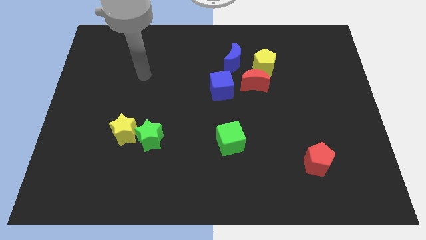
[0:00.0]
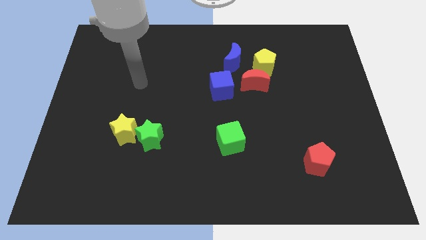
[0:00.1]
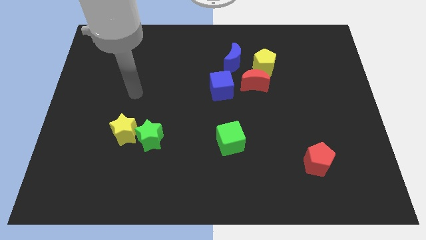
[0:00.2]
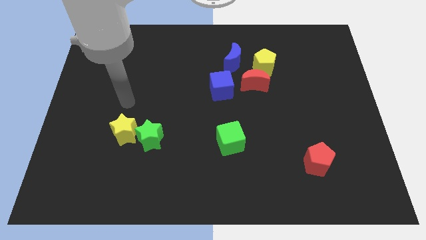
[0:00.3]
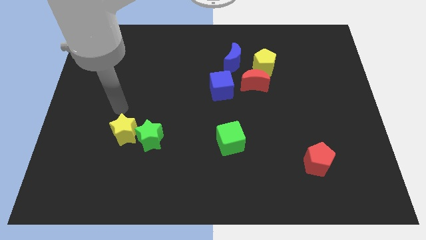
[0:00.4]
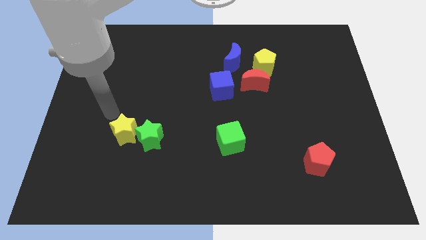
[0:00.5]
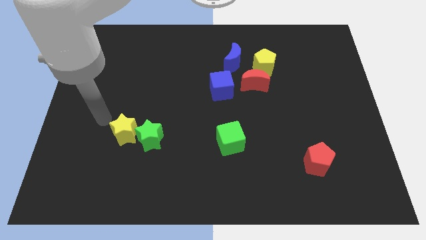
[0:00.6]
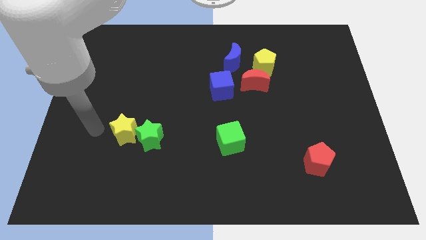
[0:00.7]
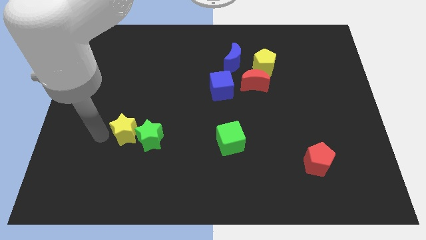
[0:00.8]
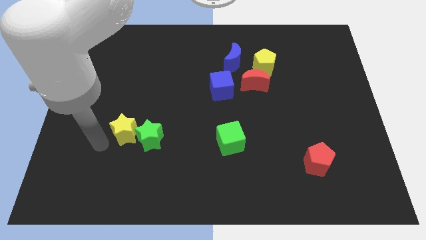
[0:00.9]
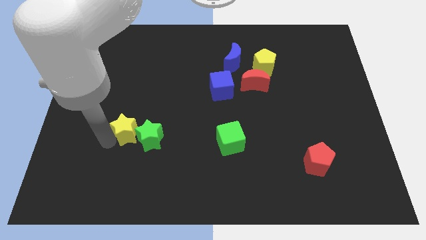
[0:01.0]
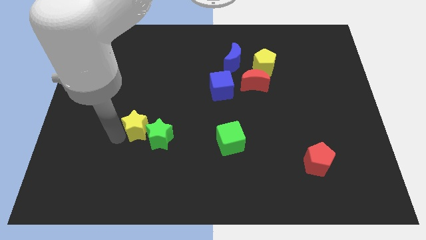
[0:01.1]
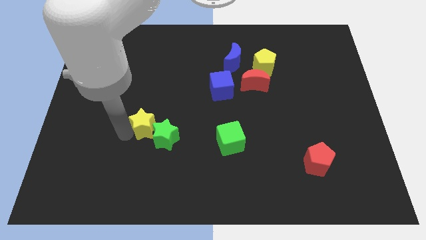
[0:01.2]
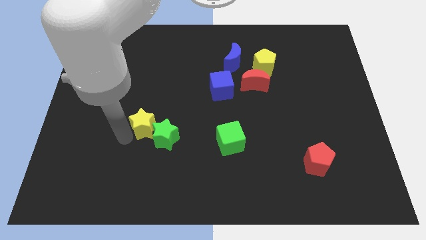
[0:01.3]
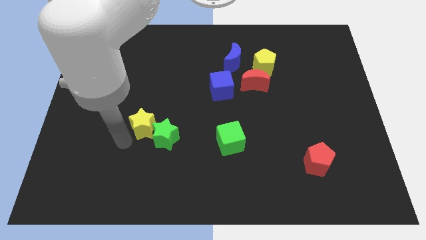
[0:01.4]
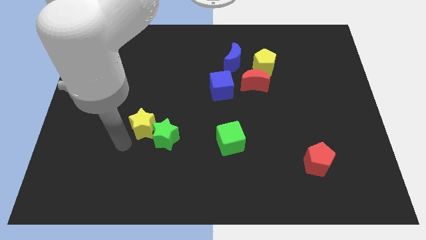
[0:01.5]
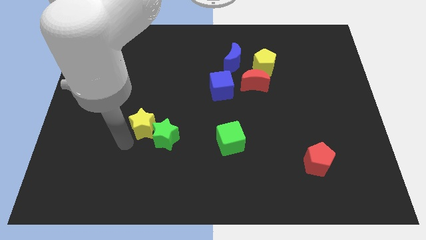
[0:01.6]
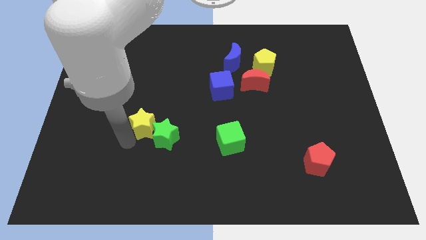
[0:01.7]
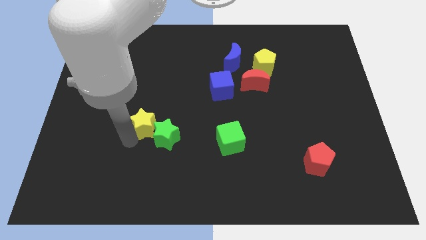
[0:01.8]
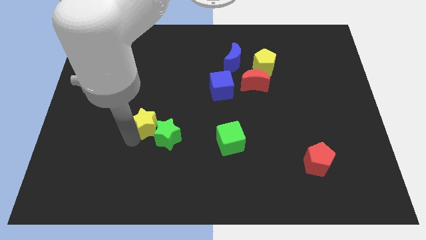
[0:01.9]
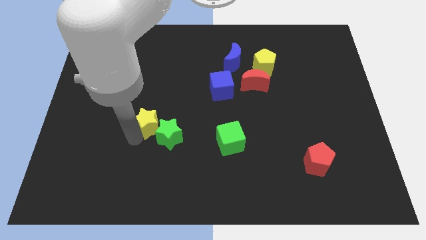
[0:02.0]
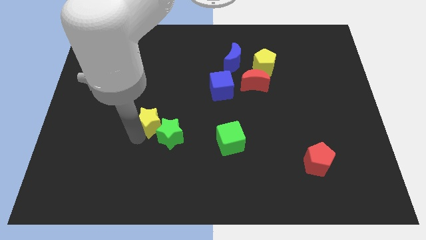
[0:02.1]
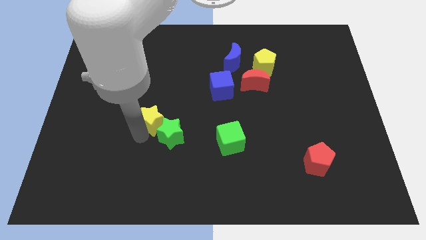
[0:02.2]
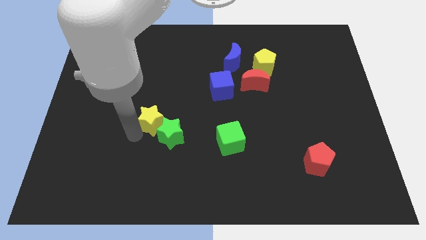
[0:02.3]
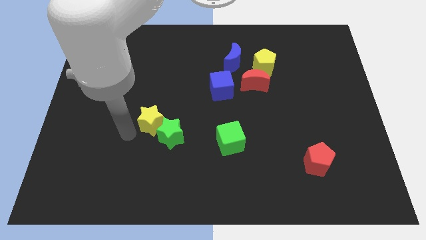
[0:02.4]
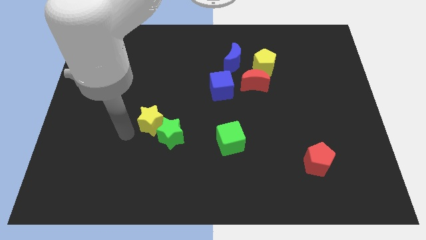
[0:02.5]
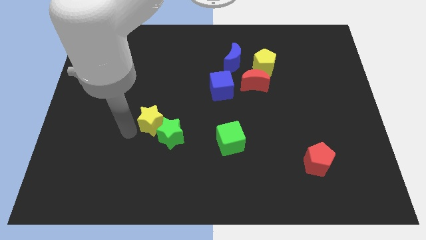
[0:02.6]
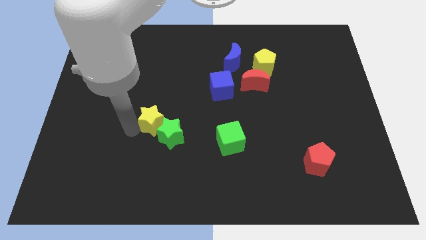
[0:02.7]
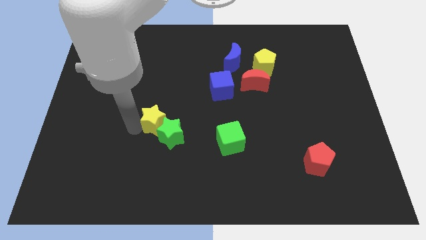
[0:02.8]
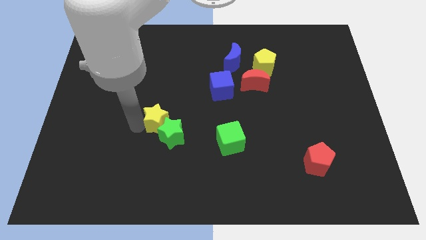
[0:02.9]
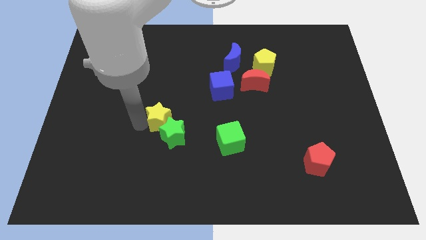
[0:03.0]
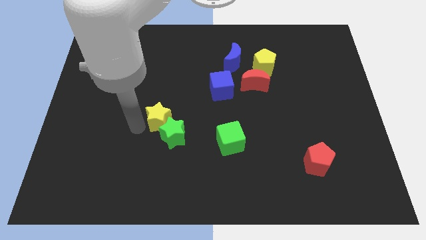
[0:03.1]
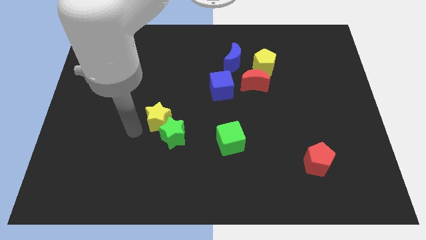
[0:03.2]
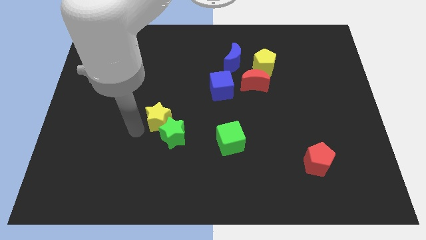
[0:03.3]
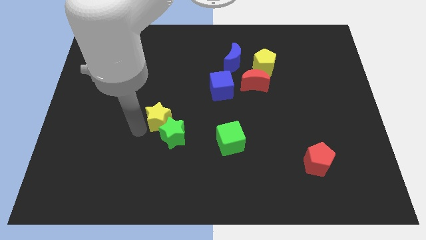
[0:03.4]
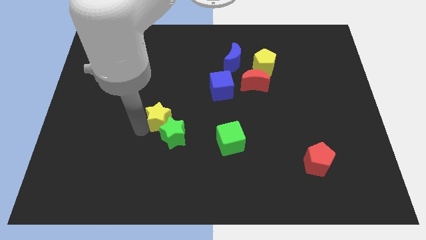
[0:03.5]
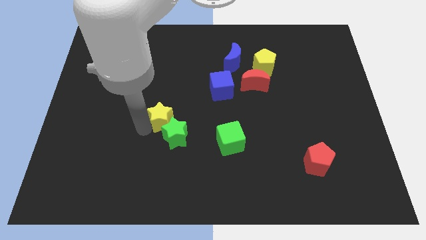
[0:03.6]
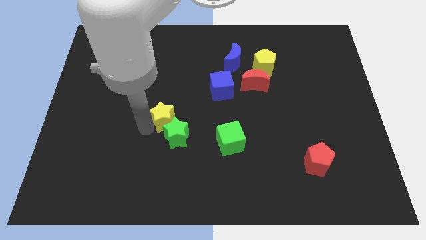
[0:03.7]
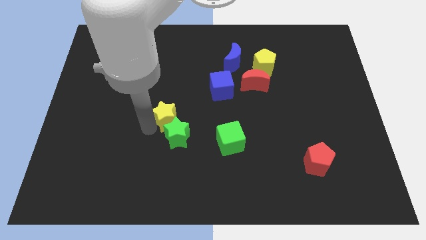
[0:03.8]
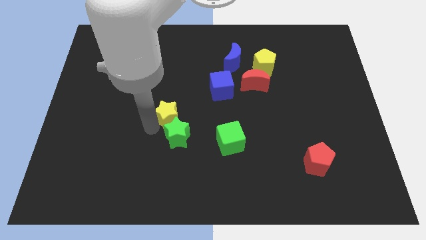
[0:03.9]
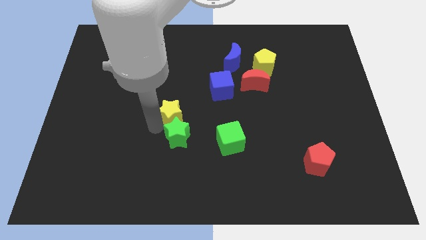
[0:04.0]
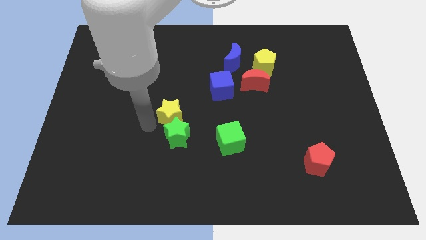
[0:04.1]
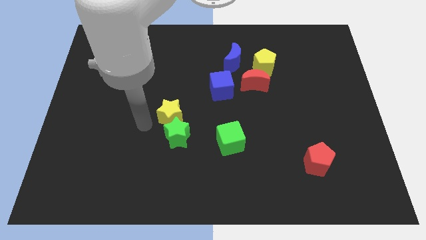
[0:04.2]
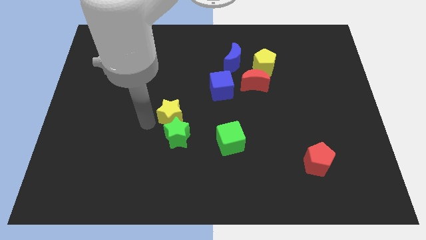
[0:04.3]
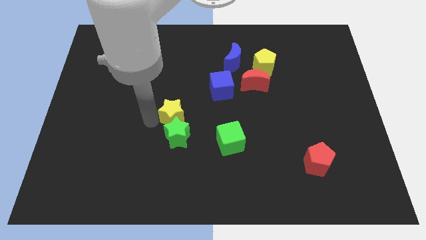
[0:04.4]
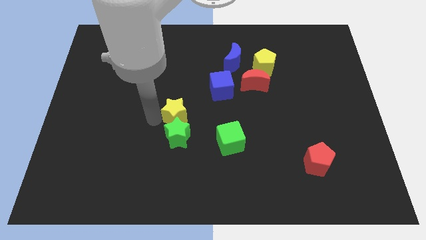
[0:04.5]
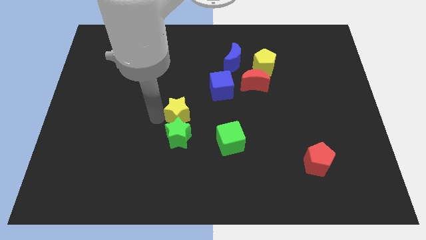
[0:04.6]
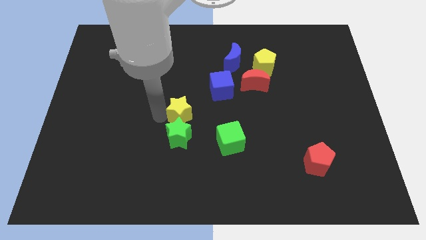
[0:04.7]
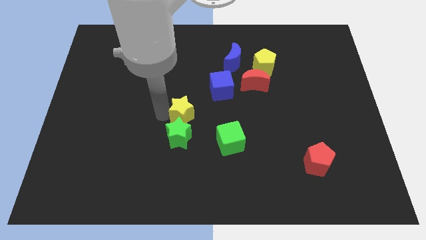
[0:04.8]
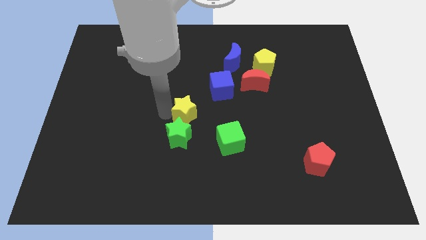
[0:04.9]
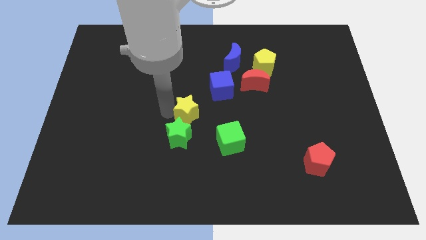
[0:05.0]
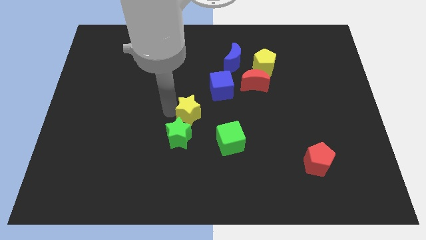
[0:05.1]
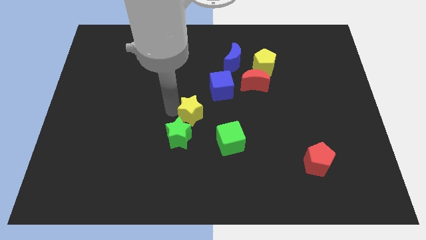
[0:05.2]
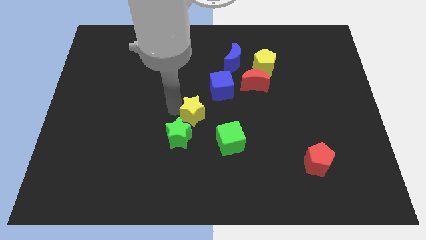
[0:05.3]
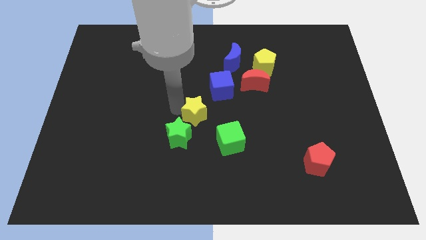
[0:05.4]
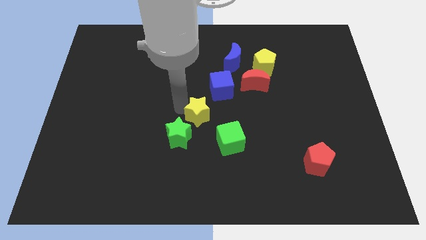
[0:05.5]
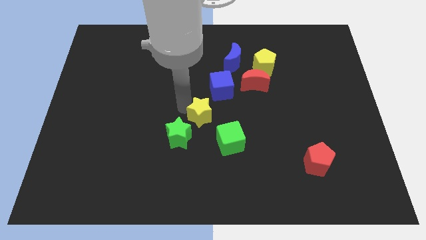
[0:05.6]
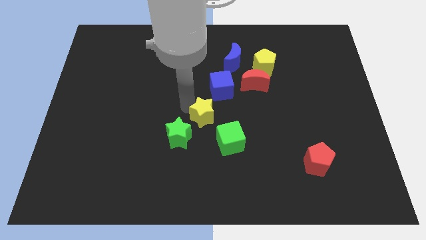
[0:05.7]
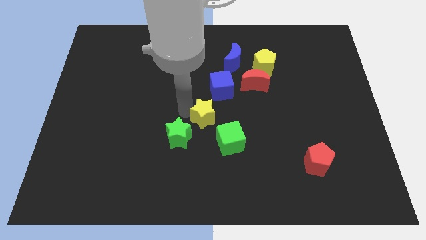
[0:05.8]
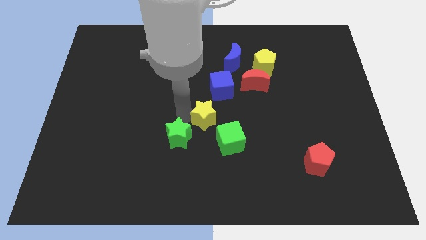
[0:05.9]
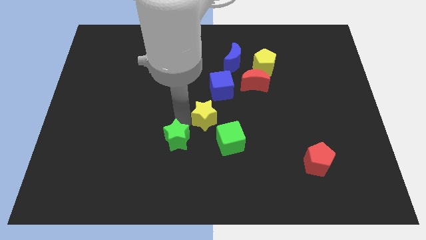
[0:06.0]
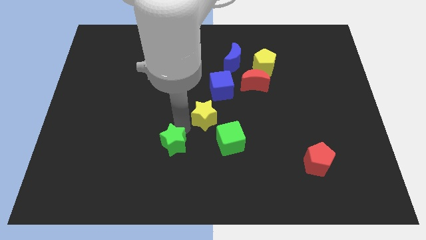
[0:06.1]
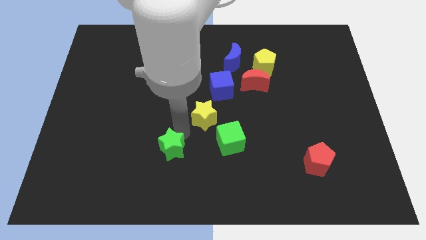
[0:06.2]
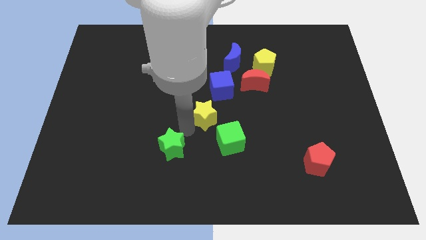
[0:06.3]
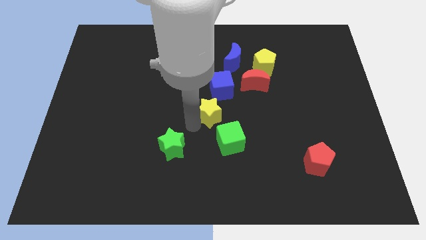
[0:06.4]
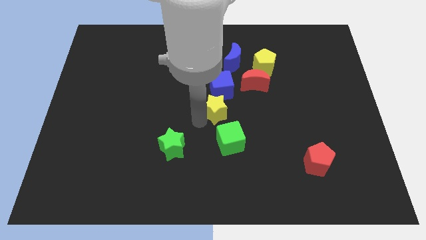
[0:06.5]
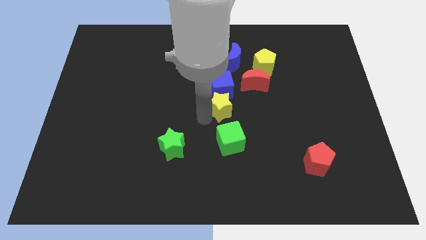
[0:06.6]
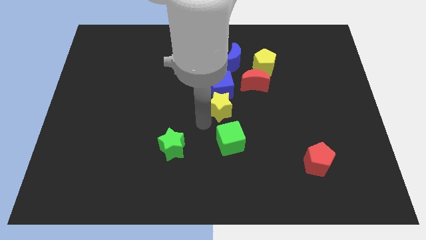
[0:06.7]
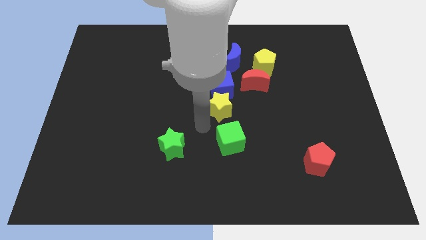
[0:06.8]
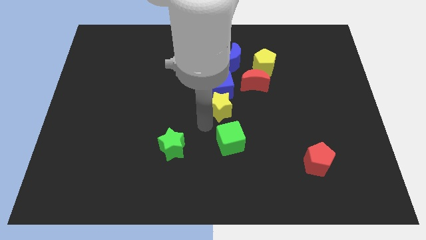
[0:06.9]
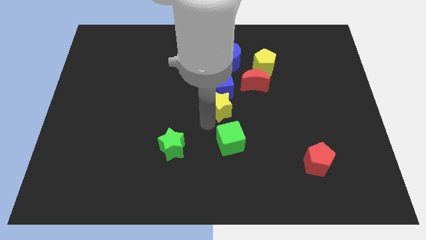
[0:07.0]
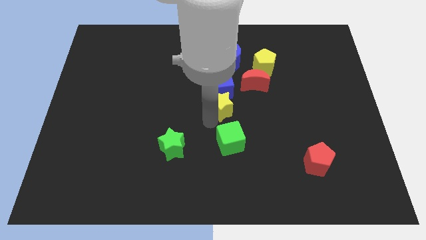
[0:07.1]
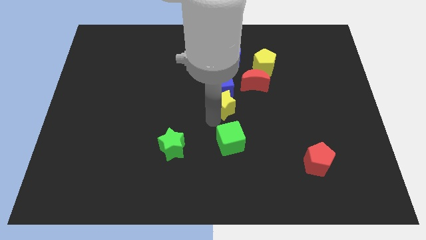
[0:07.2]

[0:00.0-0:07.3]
put the yellow star to the bottom side of the blue moon
